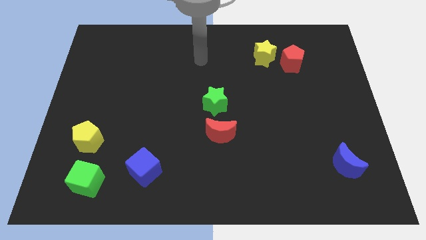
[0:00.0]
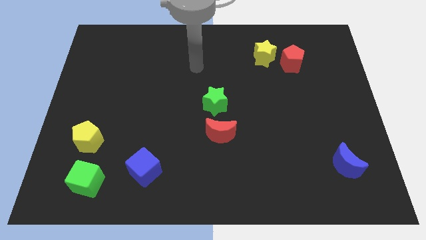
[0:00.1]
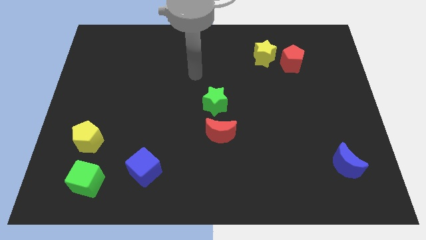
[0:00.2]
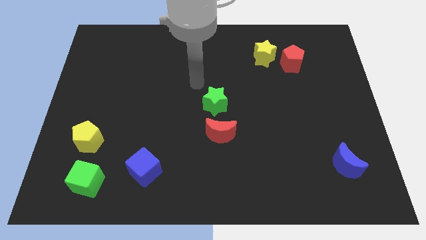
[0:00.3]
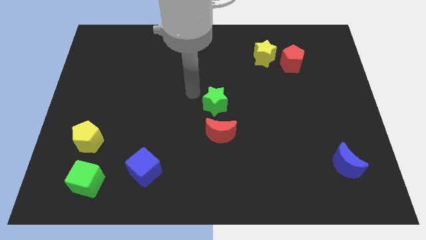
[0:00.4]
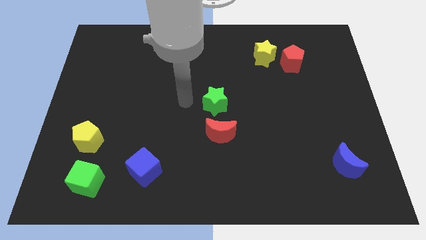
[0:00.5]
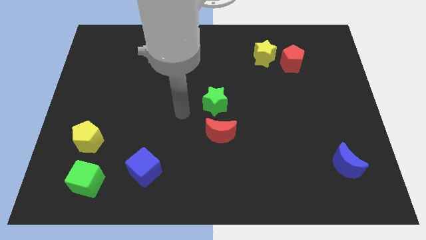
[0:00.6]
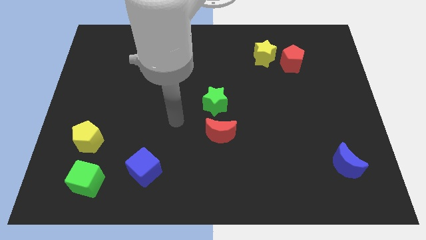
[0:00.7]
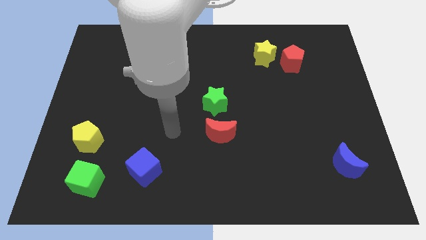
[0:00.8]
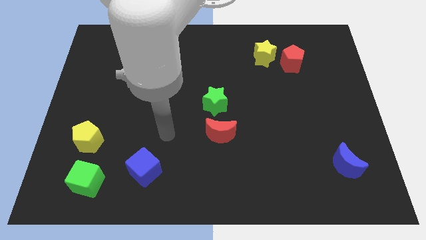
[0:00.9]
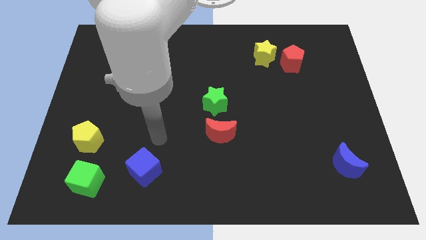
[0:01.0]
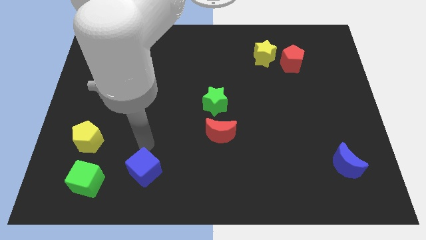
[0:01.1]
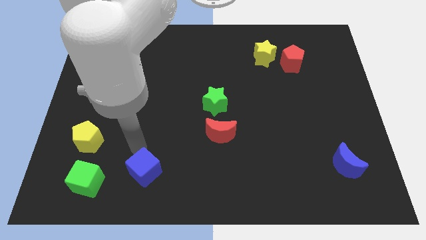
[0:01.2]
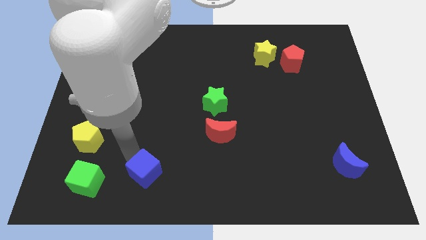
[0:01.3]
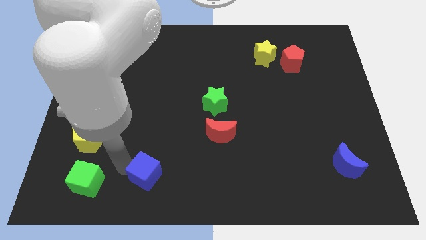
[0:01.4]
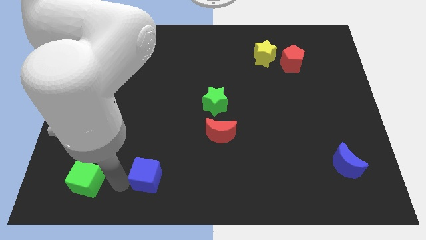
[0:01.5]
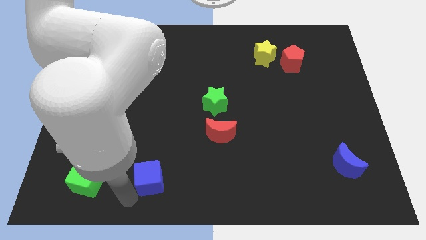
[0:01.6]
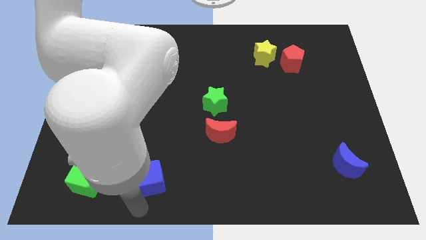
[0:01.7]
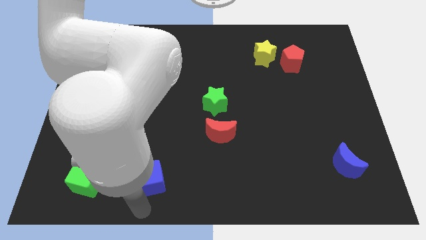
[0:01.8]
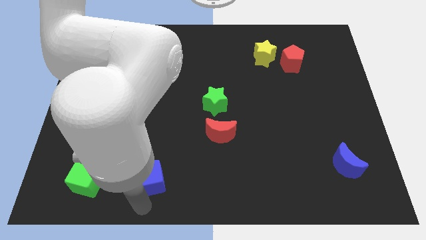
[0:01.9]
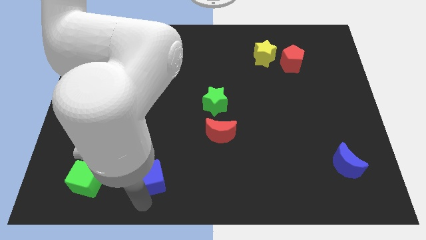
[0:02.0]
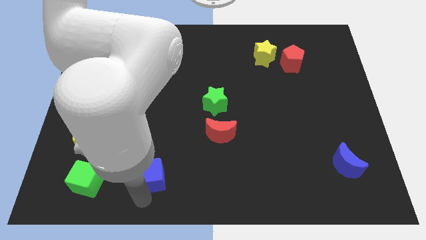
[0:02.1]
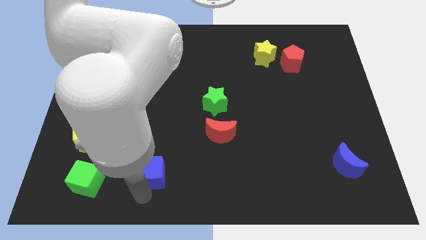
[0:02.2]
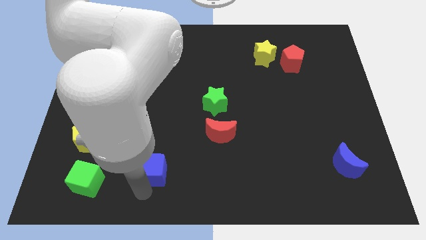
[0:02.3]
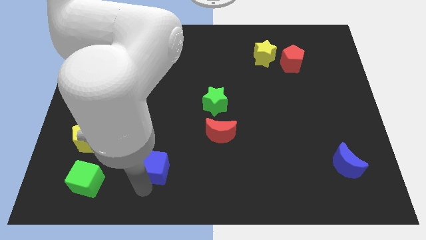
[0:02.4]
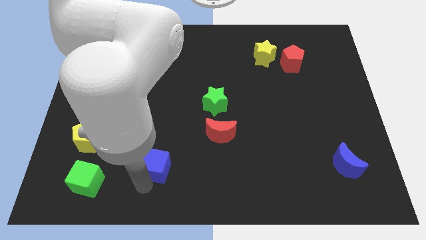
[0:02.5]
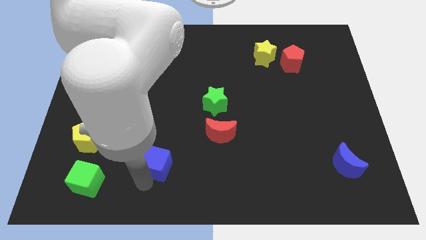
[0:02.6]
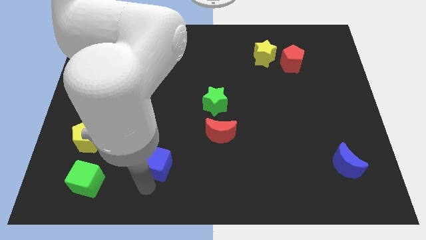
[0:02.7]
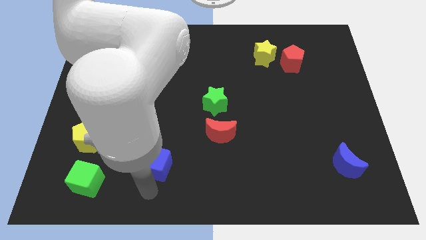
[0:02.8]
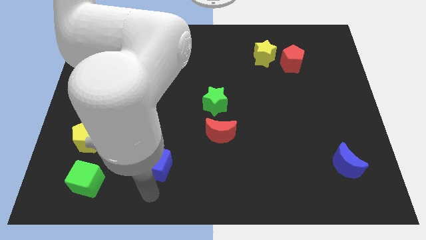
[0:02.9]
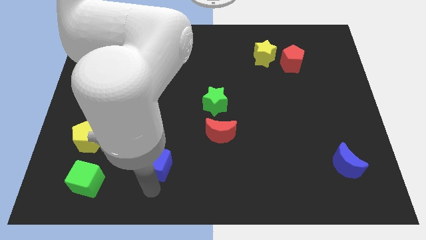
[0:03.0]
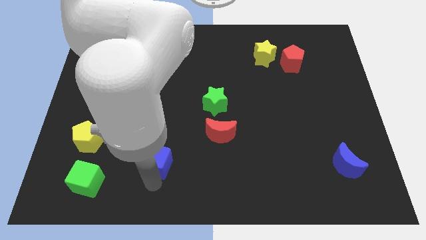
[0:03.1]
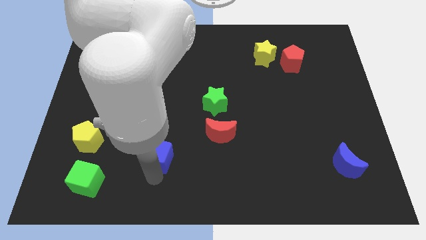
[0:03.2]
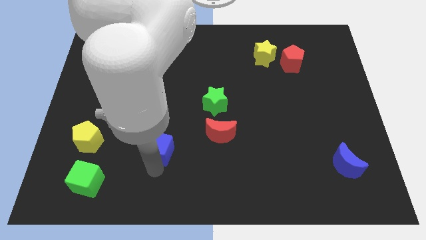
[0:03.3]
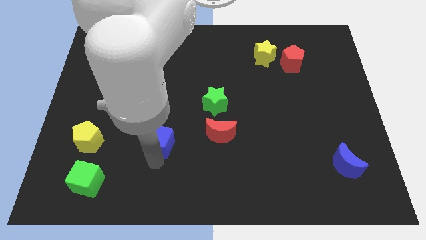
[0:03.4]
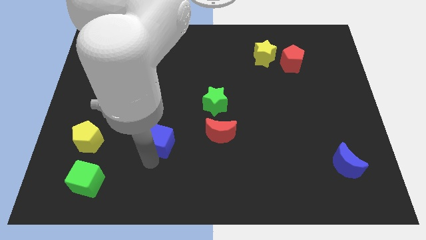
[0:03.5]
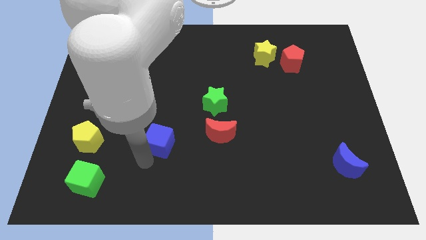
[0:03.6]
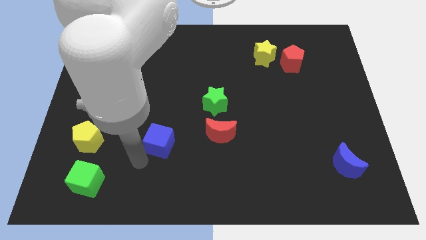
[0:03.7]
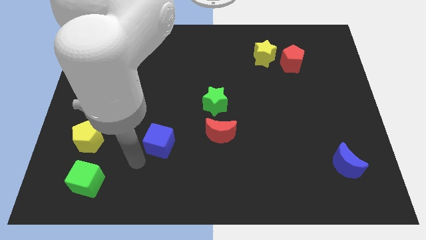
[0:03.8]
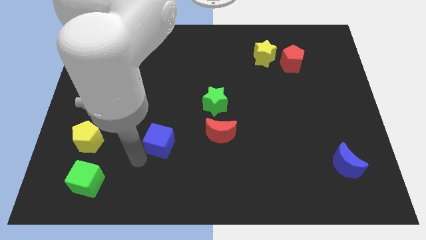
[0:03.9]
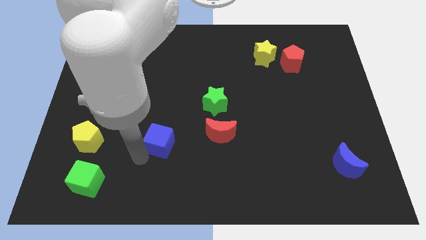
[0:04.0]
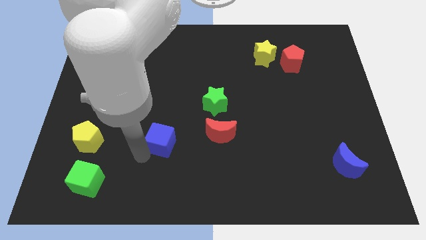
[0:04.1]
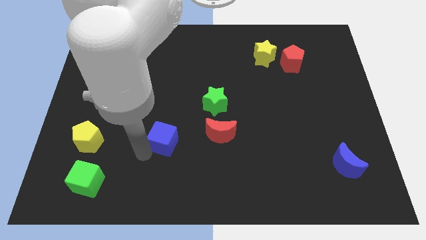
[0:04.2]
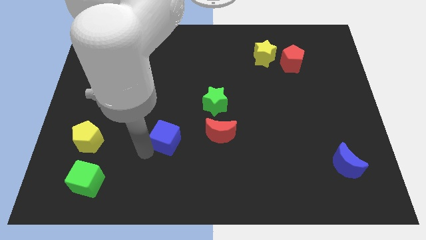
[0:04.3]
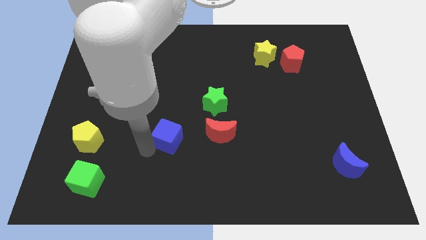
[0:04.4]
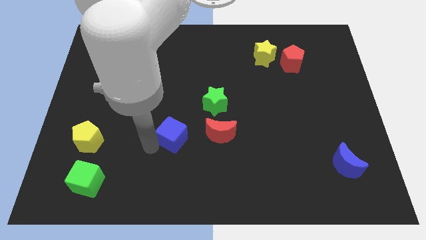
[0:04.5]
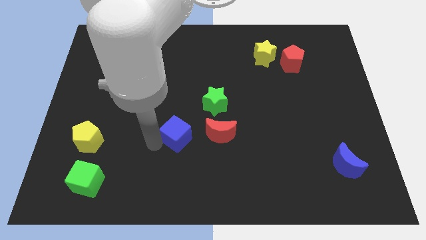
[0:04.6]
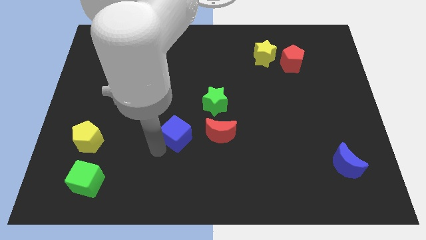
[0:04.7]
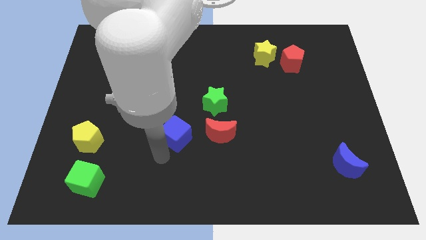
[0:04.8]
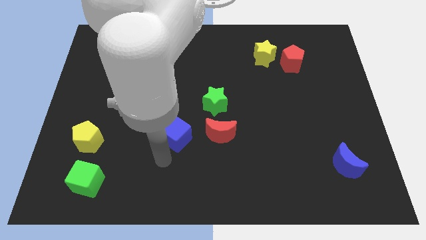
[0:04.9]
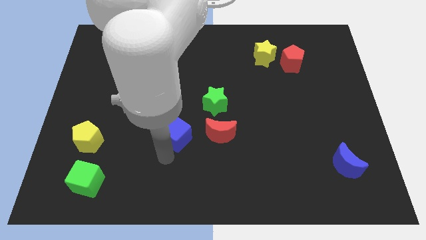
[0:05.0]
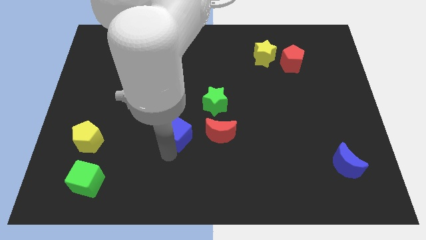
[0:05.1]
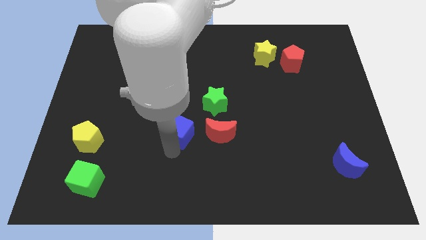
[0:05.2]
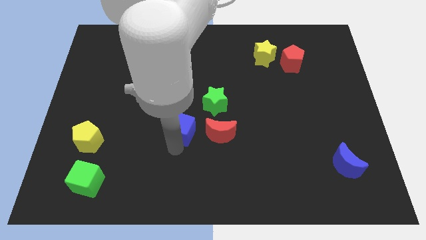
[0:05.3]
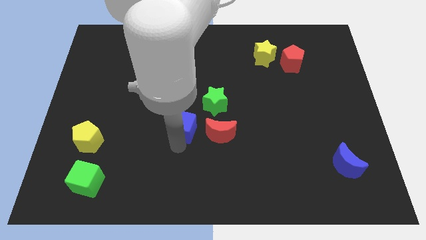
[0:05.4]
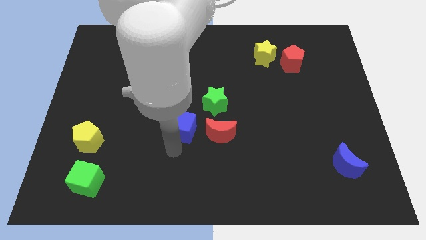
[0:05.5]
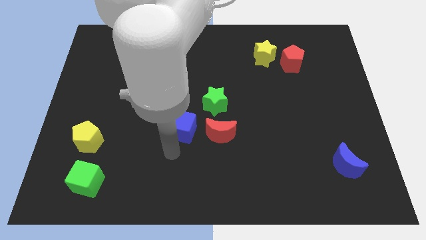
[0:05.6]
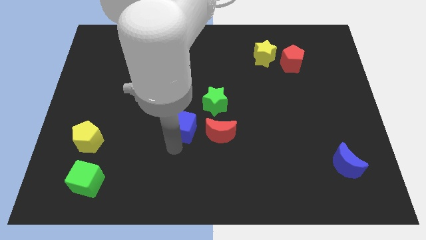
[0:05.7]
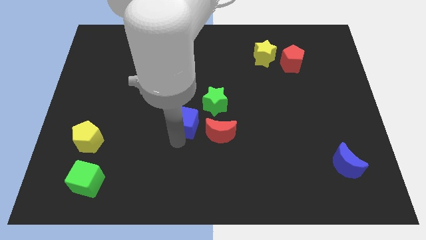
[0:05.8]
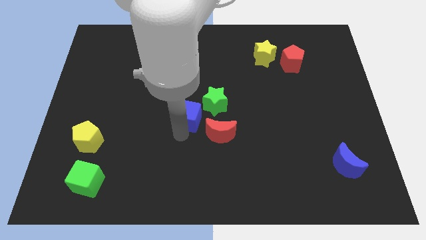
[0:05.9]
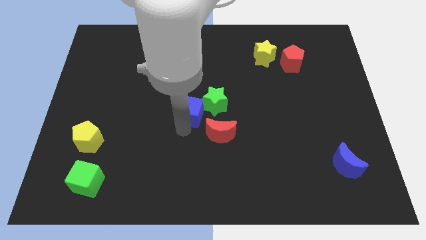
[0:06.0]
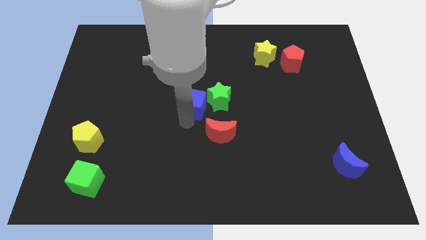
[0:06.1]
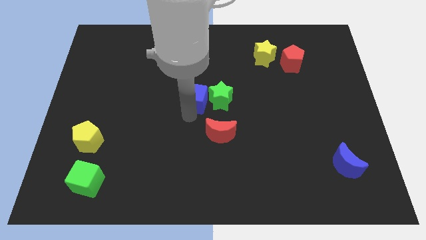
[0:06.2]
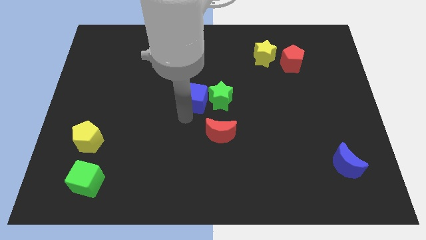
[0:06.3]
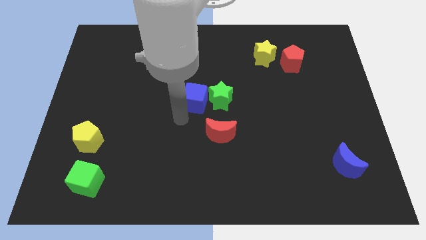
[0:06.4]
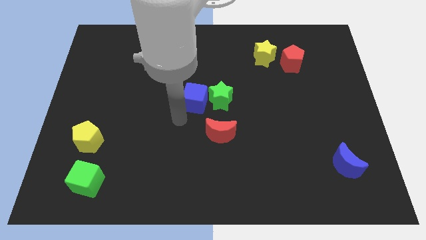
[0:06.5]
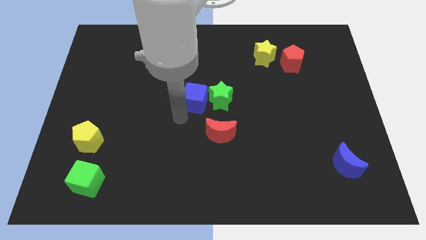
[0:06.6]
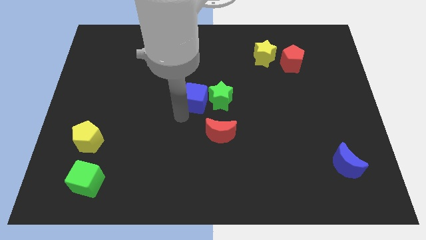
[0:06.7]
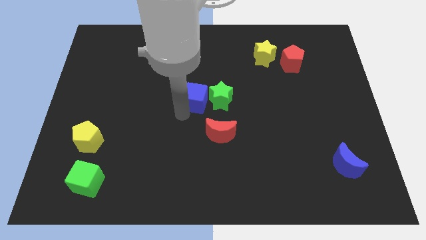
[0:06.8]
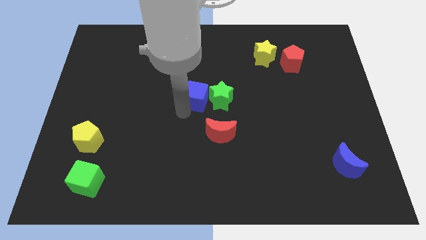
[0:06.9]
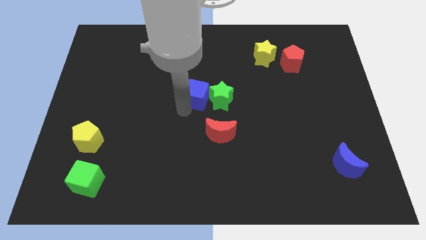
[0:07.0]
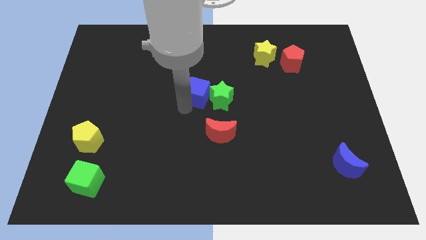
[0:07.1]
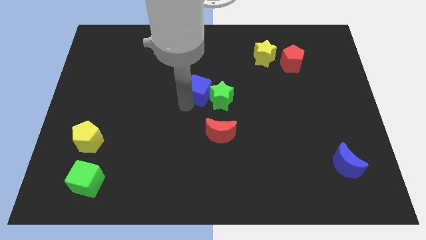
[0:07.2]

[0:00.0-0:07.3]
push the blue cube upwards and right

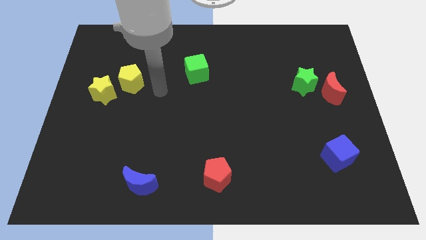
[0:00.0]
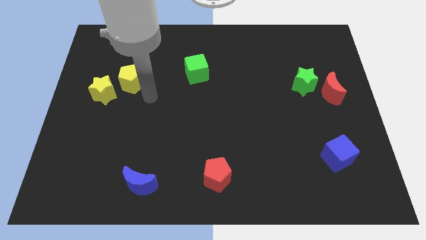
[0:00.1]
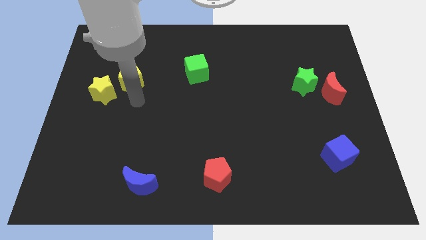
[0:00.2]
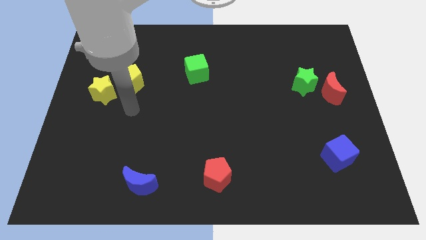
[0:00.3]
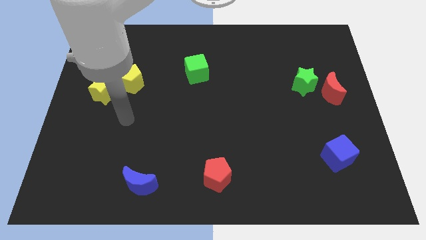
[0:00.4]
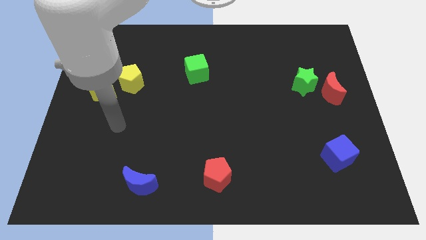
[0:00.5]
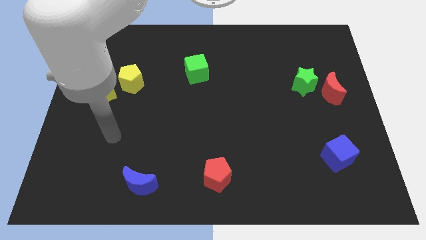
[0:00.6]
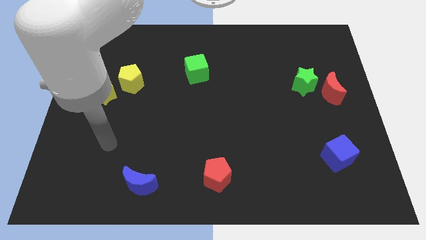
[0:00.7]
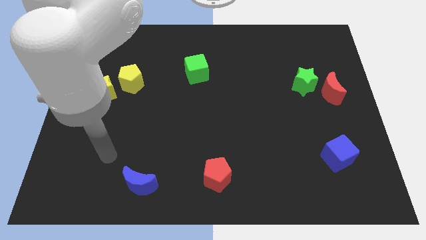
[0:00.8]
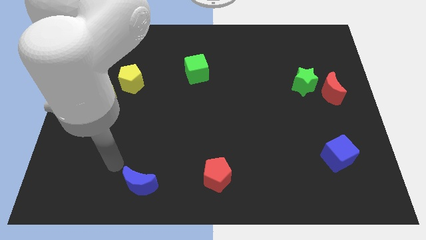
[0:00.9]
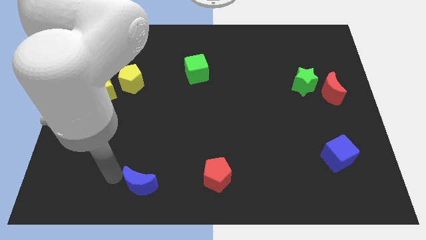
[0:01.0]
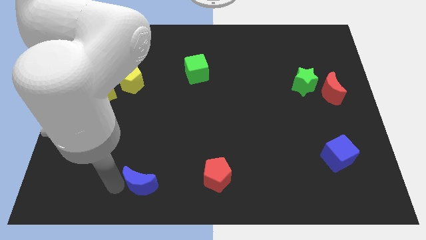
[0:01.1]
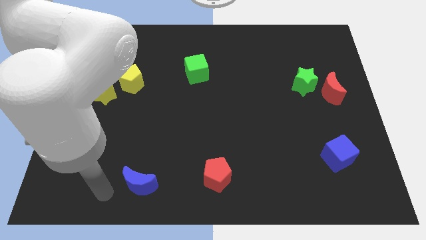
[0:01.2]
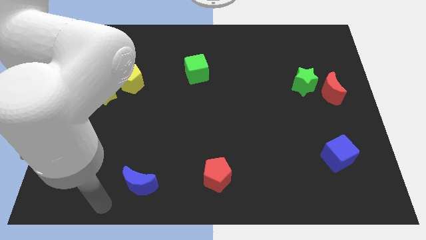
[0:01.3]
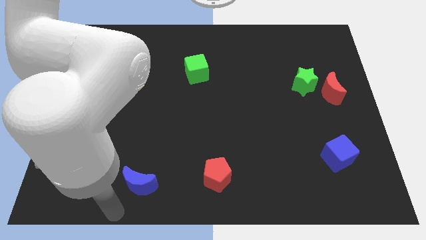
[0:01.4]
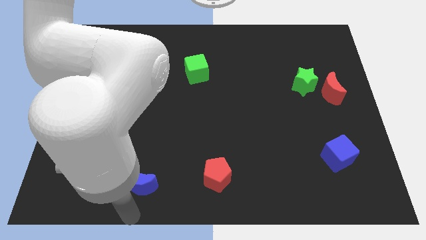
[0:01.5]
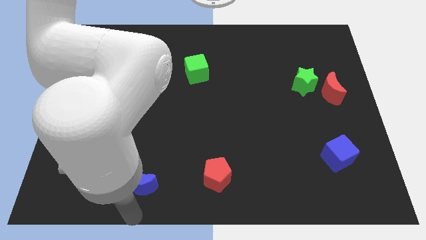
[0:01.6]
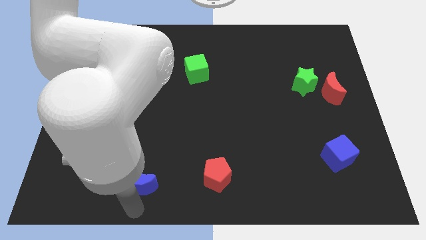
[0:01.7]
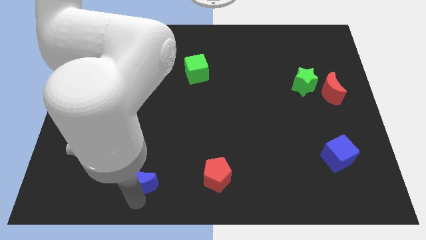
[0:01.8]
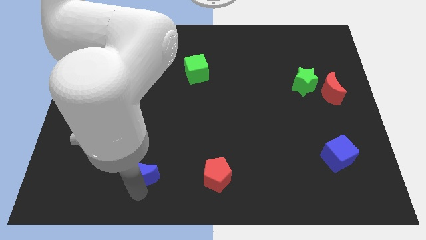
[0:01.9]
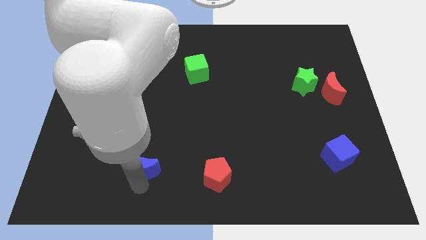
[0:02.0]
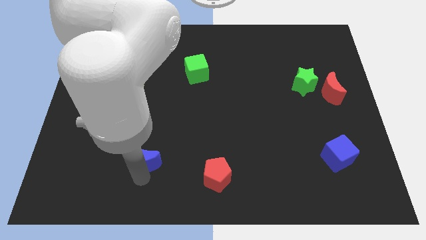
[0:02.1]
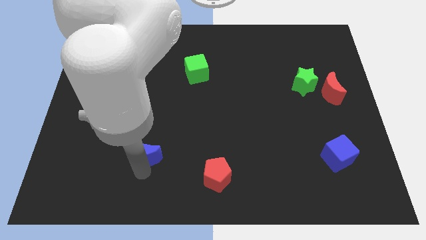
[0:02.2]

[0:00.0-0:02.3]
slightly push the blue moon upwards
